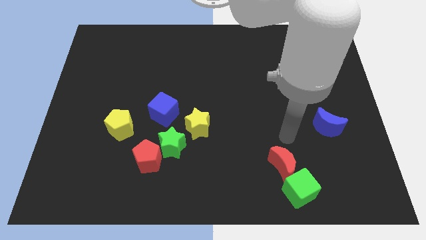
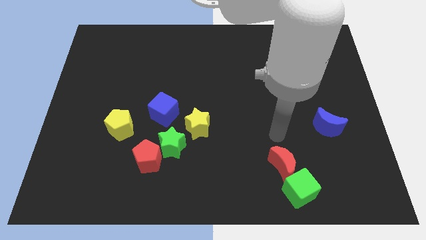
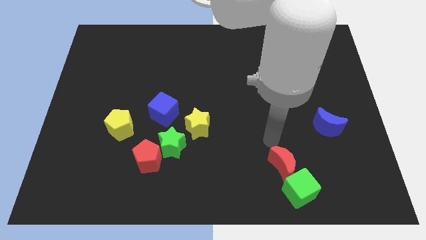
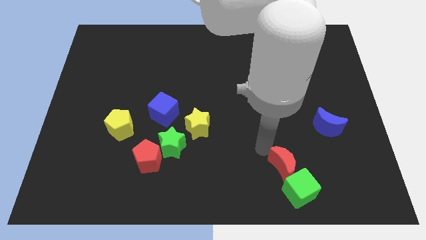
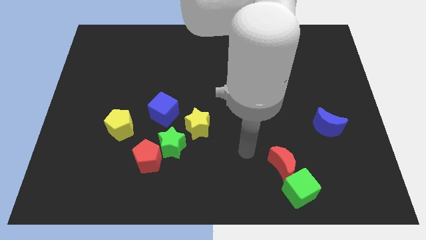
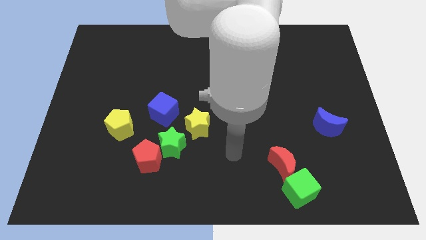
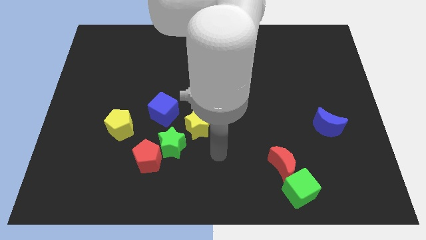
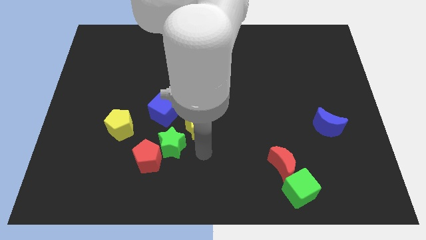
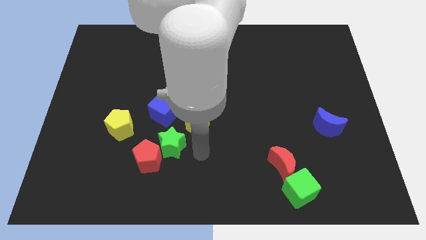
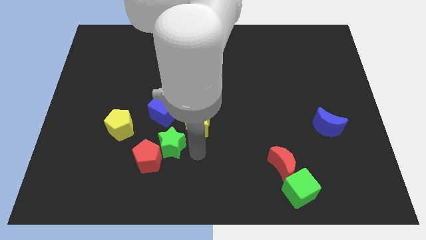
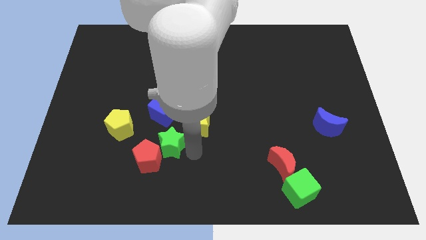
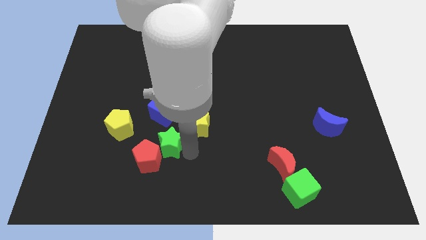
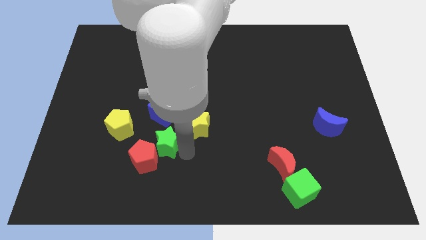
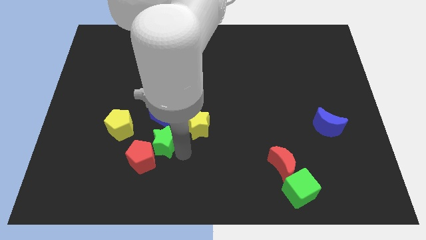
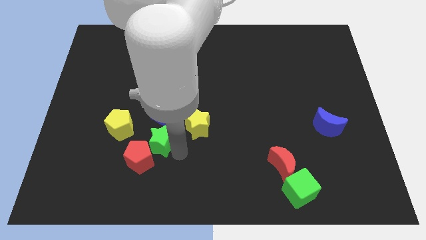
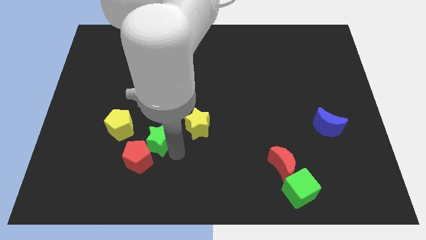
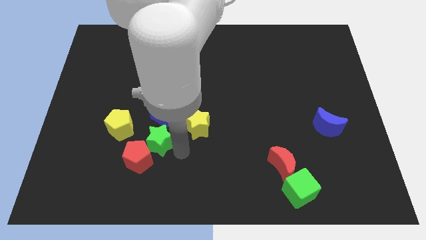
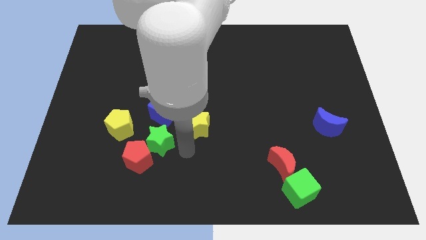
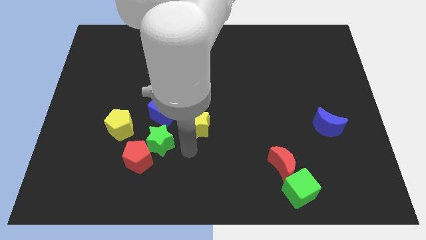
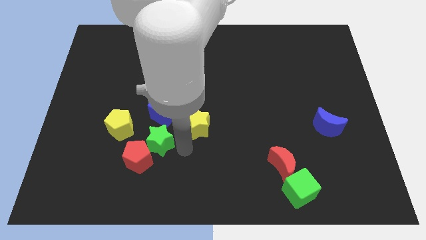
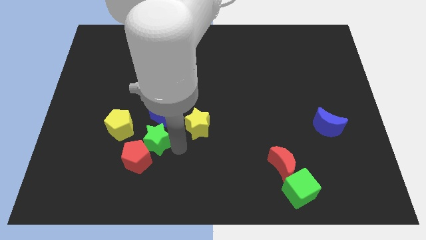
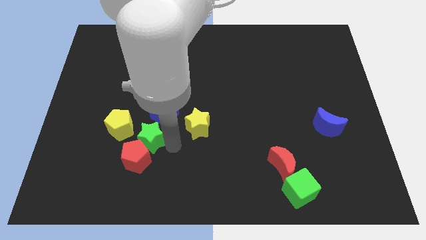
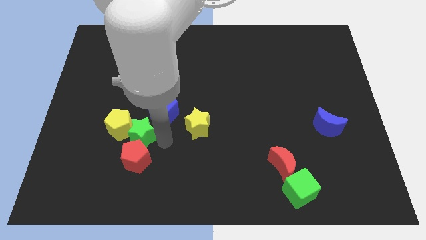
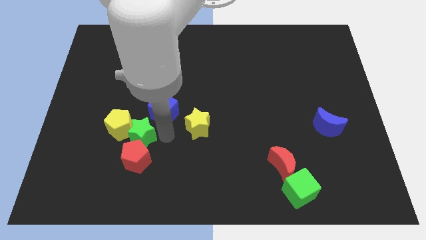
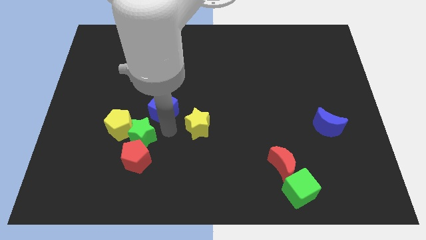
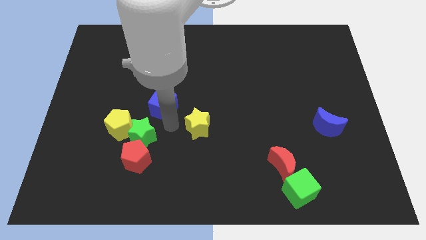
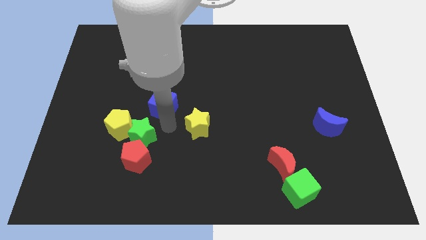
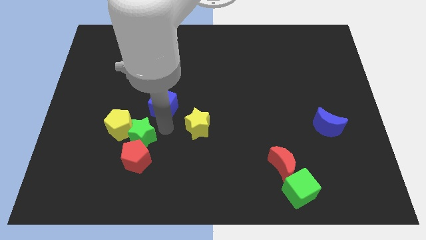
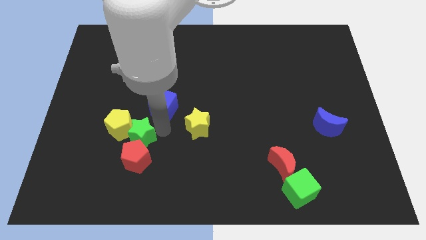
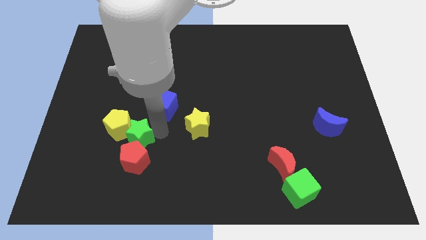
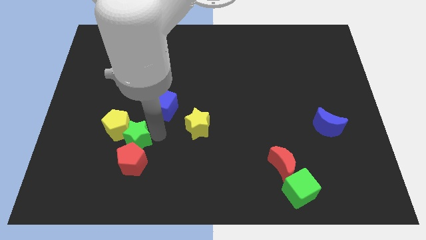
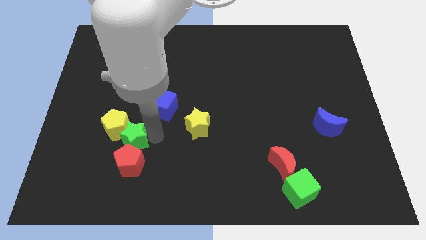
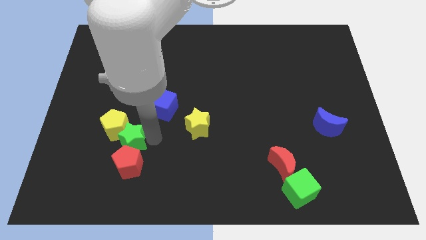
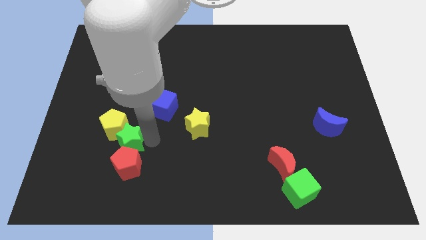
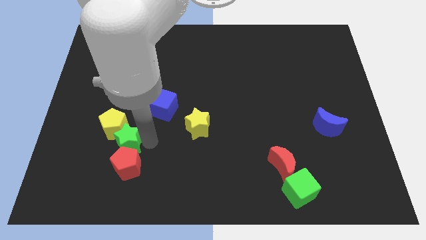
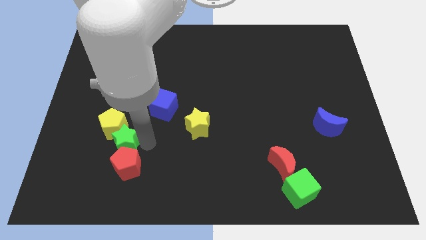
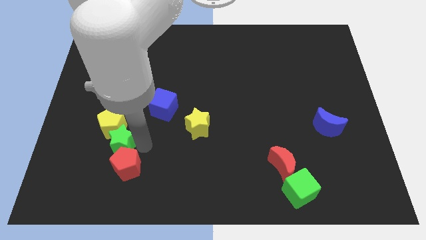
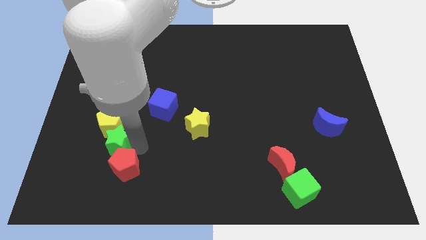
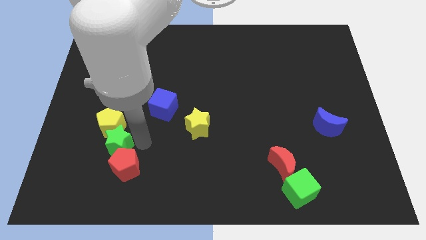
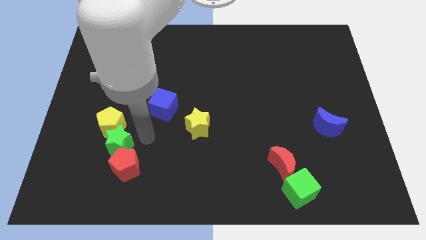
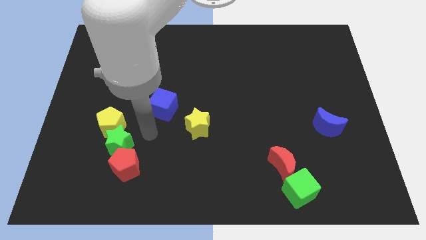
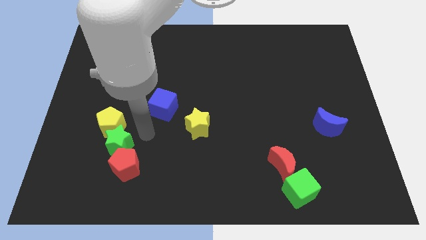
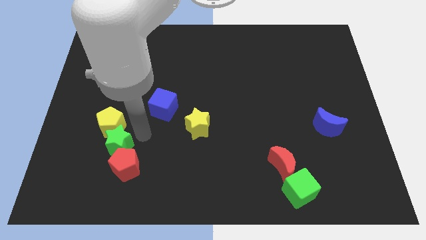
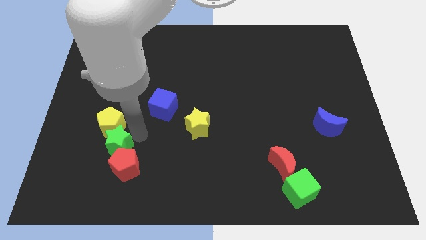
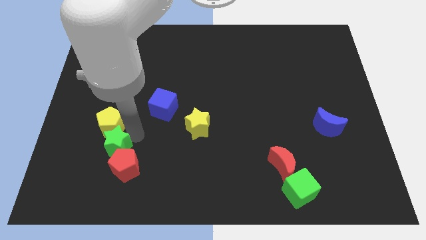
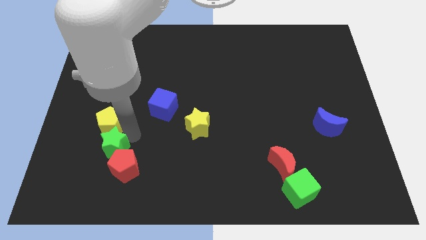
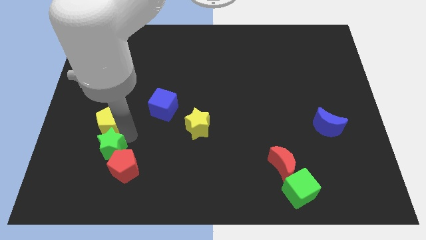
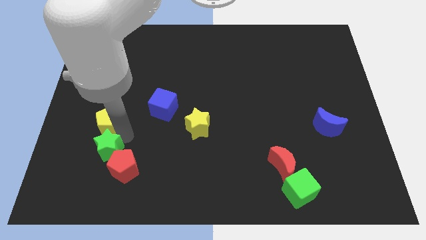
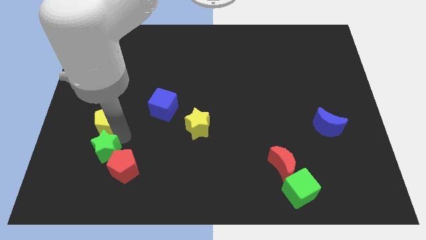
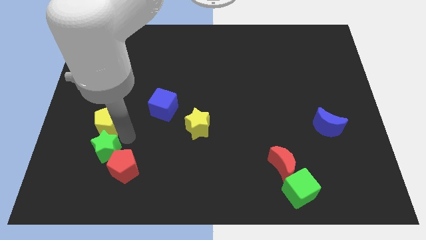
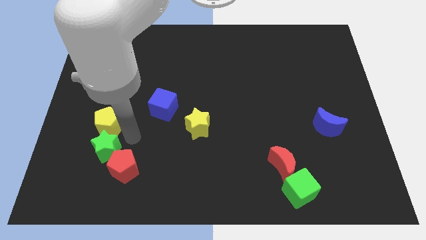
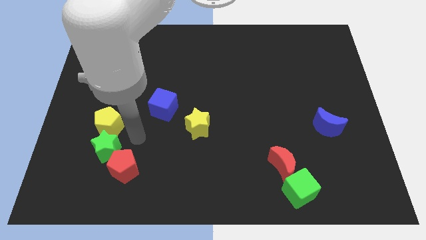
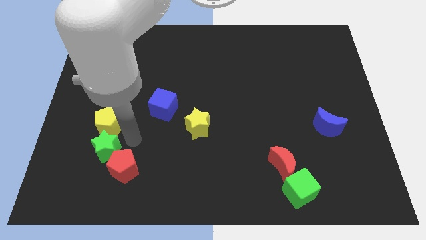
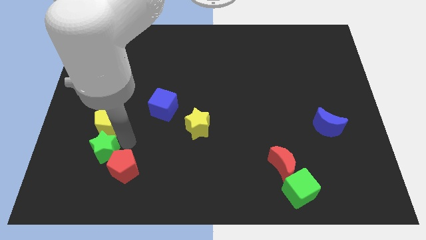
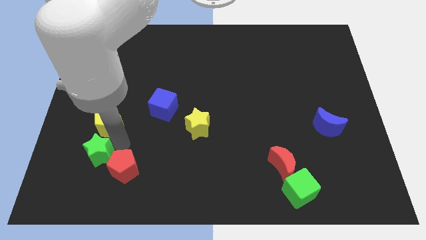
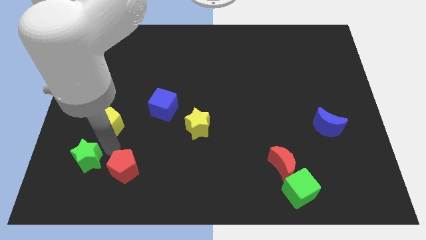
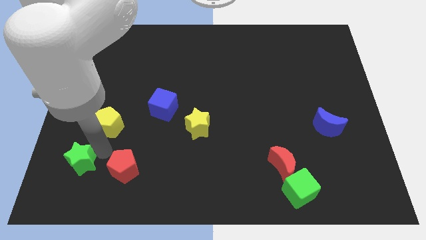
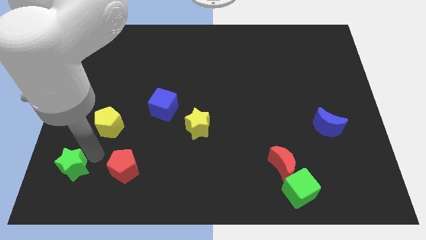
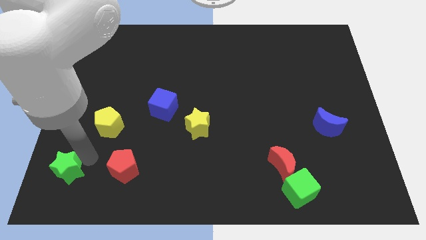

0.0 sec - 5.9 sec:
slide the green star to the bottom left corner
